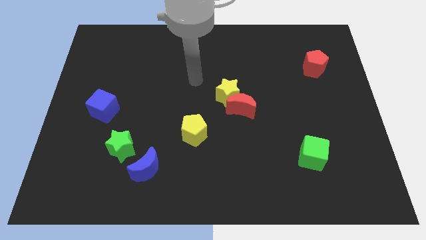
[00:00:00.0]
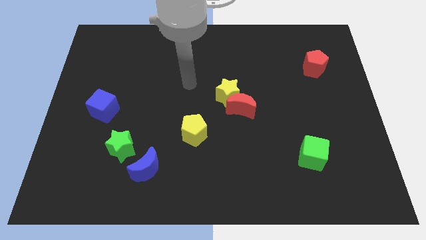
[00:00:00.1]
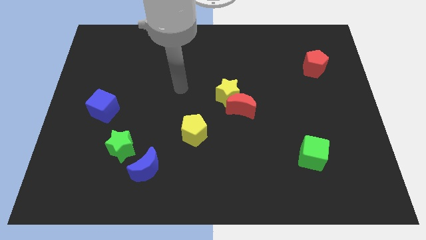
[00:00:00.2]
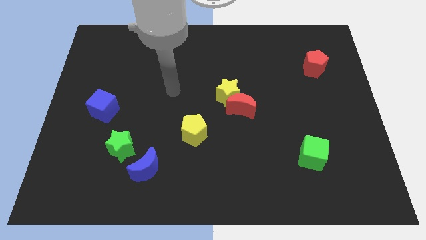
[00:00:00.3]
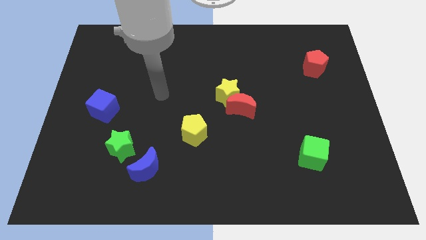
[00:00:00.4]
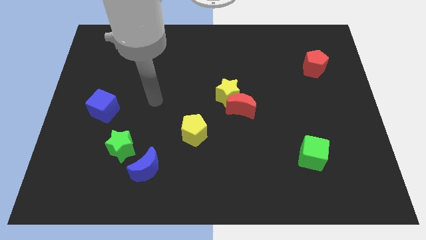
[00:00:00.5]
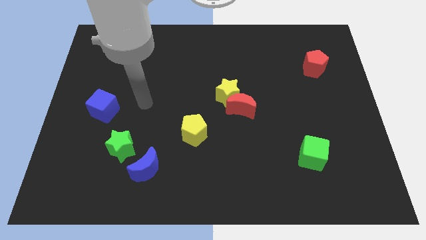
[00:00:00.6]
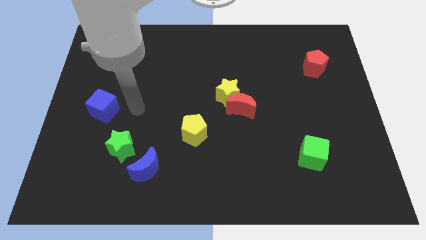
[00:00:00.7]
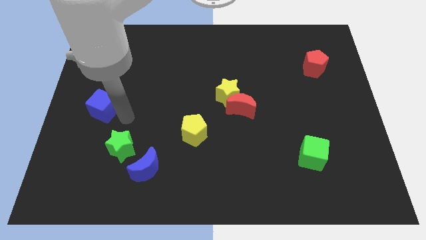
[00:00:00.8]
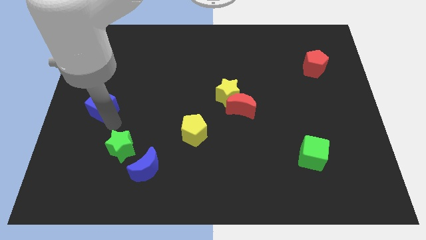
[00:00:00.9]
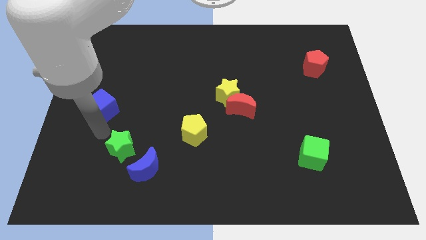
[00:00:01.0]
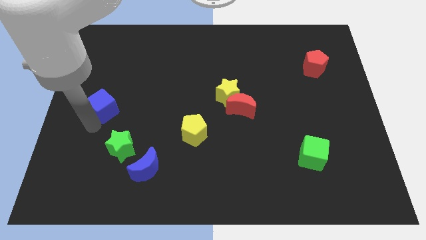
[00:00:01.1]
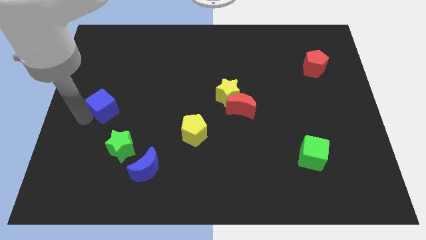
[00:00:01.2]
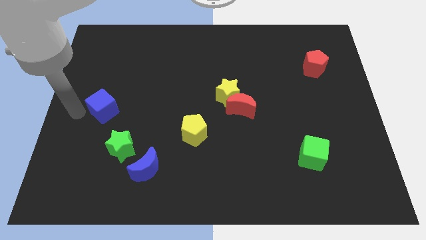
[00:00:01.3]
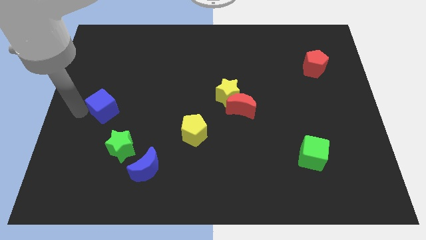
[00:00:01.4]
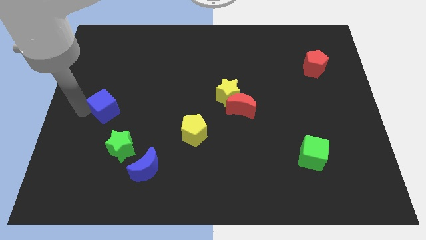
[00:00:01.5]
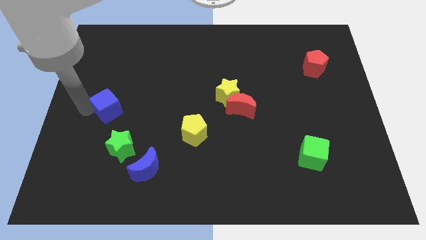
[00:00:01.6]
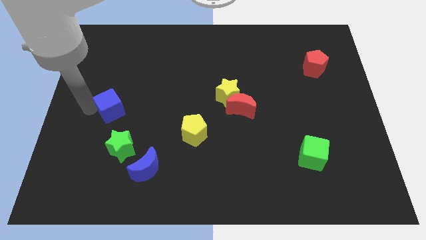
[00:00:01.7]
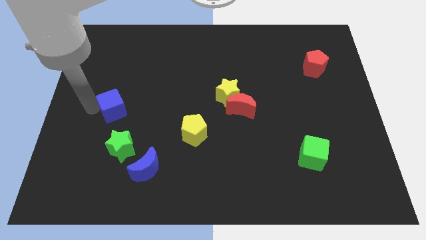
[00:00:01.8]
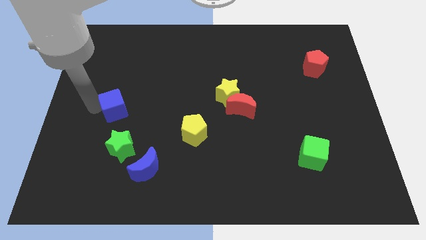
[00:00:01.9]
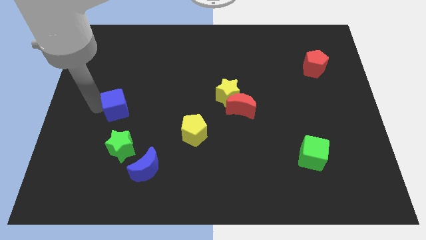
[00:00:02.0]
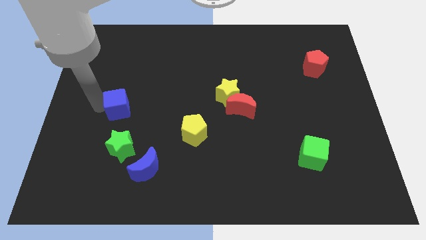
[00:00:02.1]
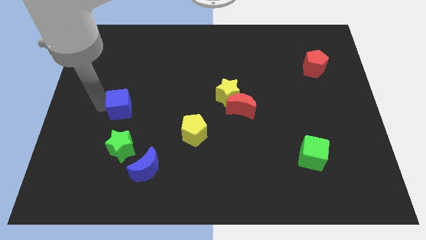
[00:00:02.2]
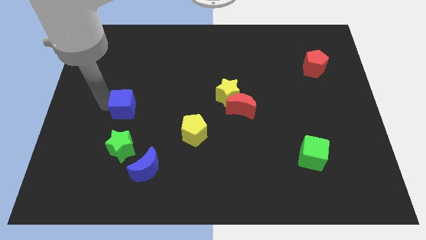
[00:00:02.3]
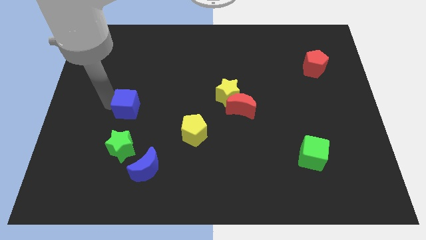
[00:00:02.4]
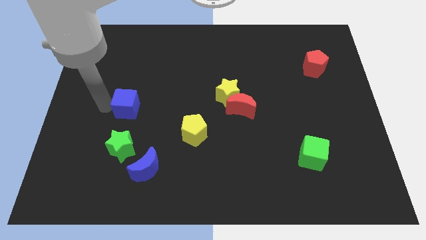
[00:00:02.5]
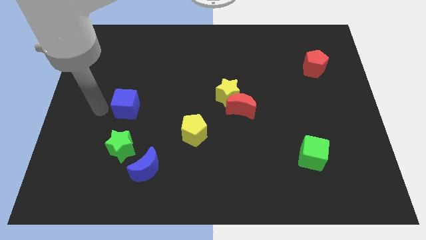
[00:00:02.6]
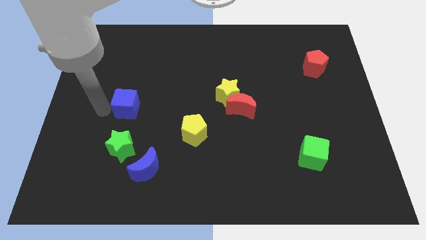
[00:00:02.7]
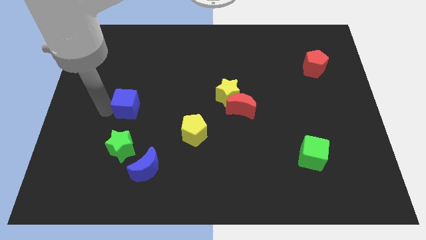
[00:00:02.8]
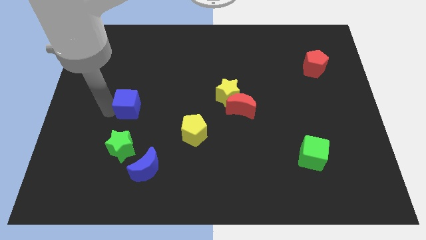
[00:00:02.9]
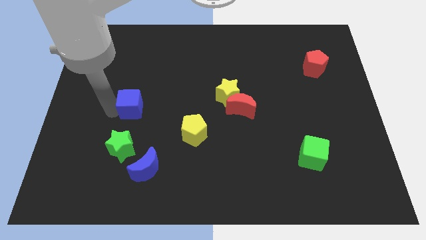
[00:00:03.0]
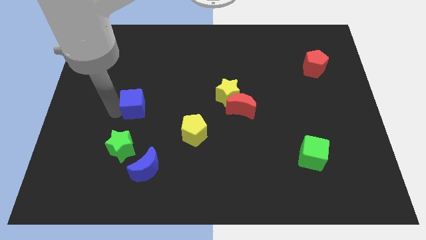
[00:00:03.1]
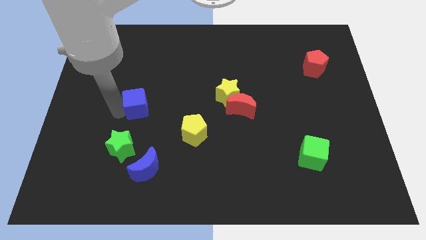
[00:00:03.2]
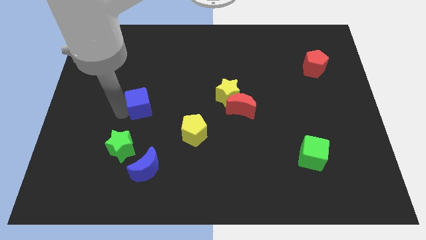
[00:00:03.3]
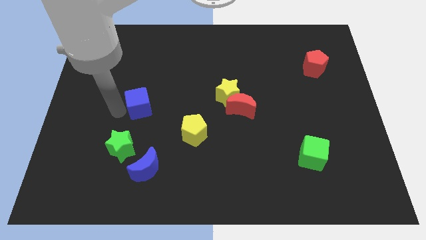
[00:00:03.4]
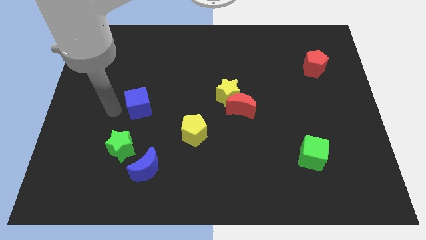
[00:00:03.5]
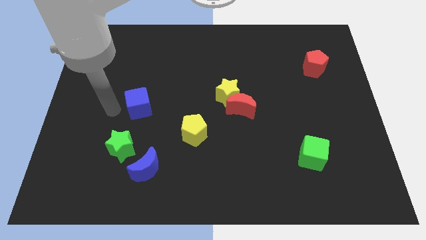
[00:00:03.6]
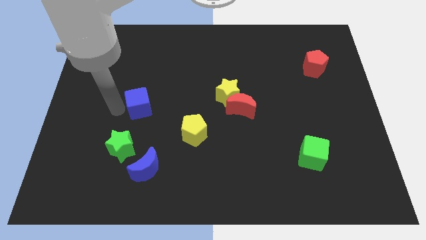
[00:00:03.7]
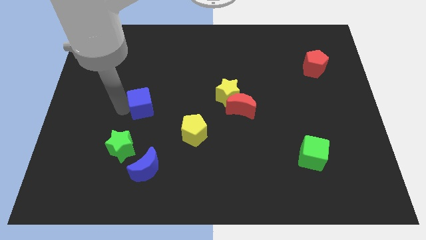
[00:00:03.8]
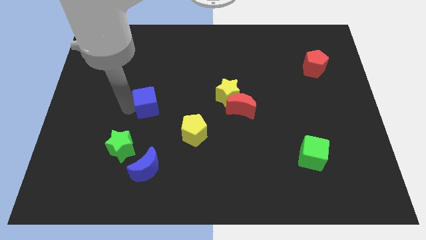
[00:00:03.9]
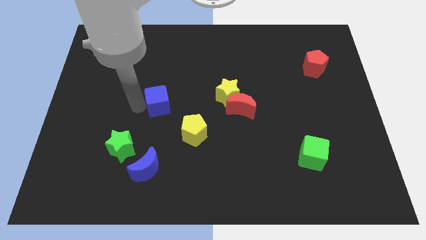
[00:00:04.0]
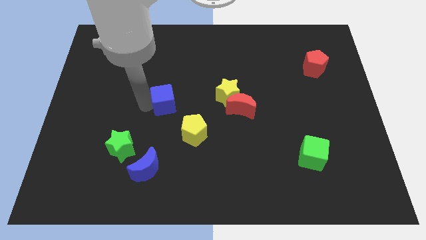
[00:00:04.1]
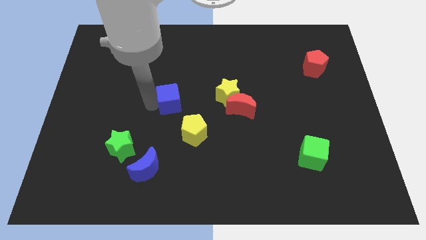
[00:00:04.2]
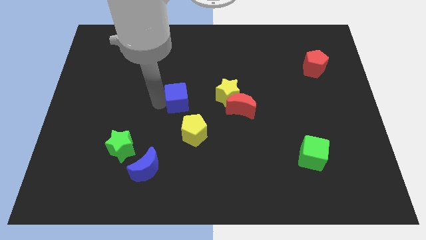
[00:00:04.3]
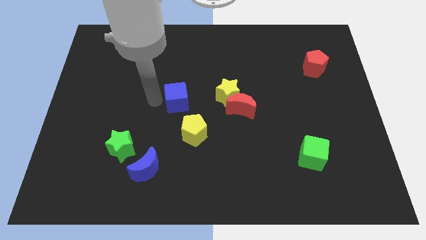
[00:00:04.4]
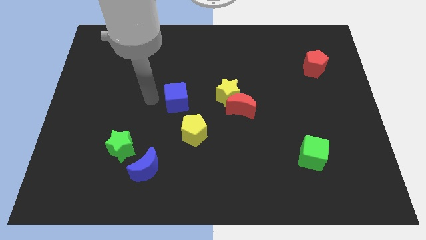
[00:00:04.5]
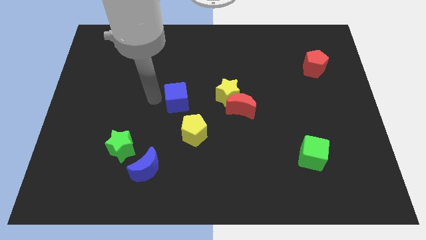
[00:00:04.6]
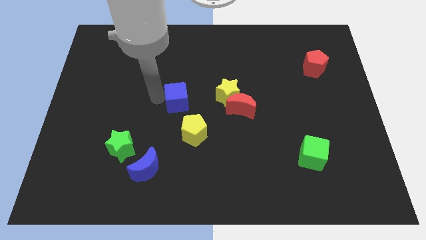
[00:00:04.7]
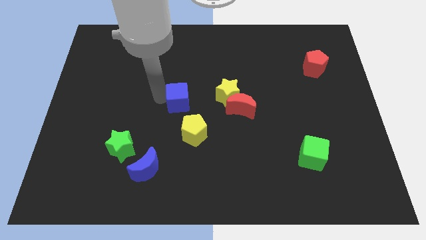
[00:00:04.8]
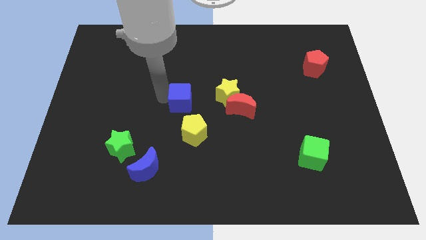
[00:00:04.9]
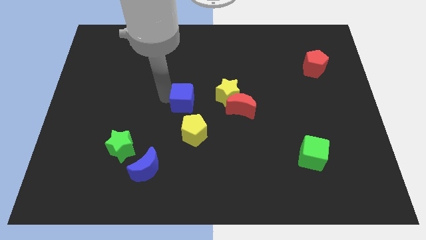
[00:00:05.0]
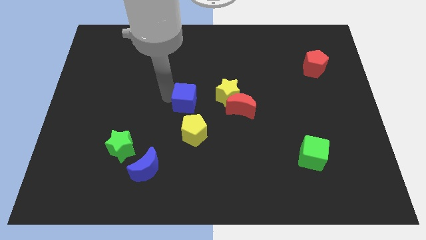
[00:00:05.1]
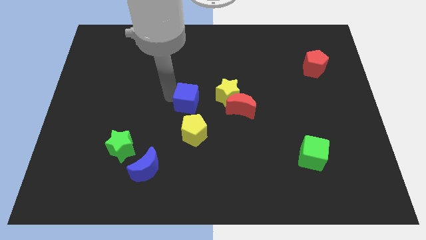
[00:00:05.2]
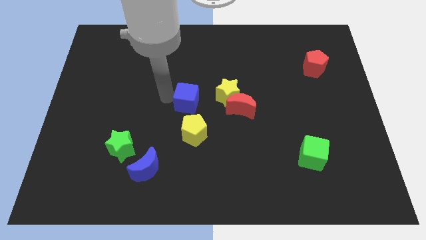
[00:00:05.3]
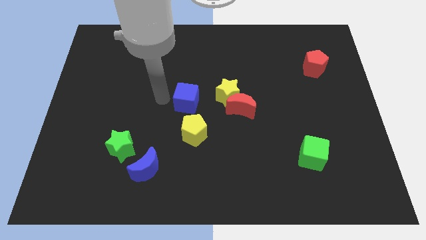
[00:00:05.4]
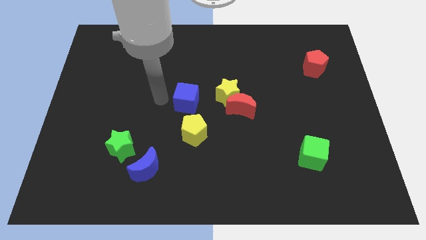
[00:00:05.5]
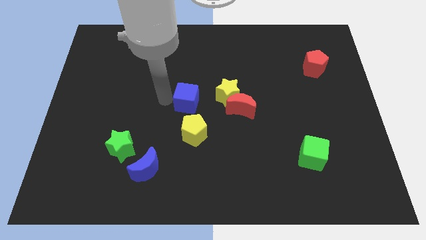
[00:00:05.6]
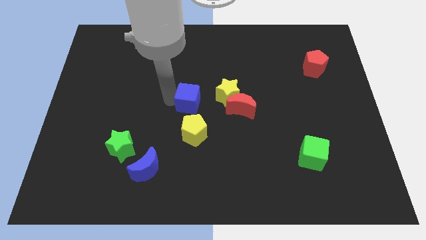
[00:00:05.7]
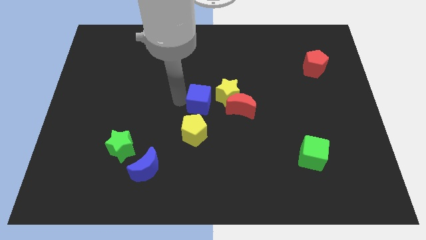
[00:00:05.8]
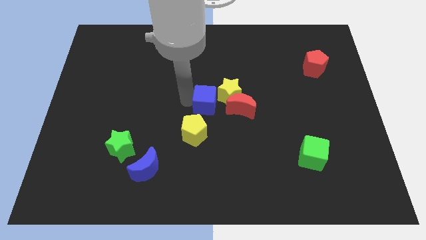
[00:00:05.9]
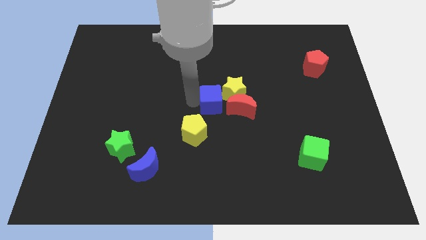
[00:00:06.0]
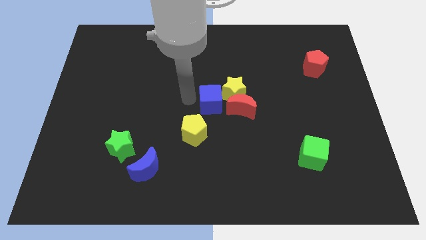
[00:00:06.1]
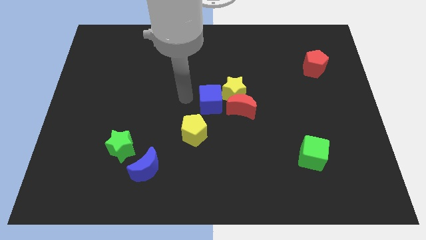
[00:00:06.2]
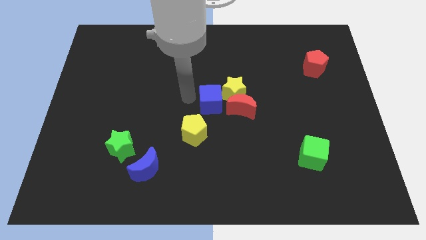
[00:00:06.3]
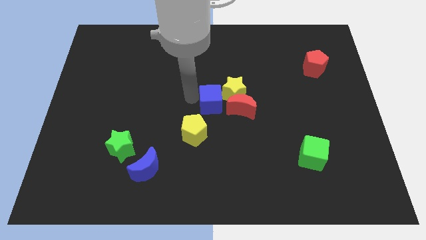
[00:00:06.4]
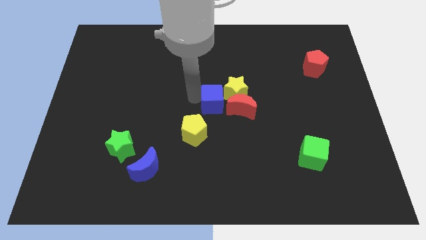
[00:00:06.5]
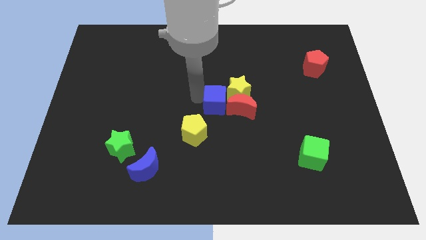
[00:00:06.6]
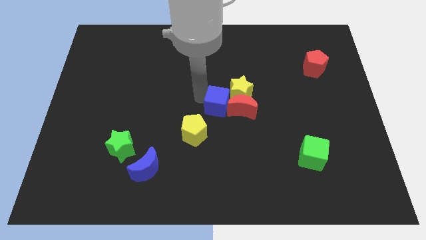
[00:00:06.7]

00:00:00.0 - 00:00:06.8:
push the blue cube to the red moon
